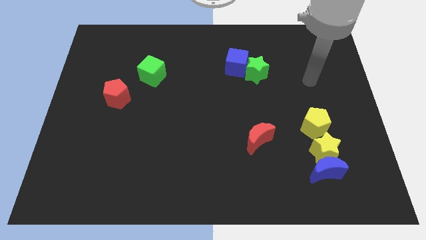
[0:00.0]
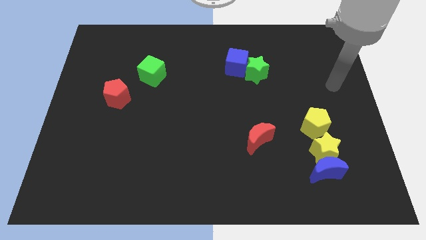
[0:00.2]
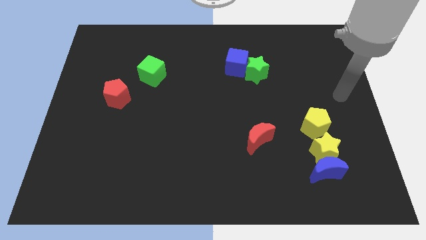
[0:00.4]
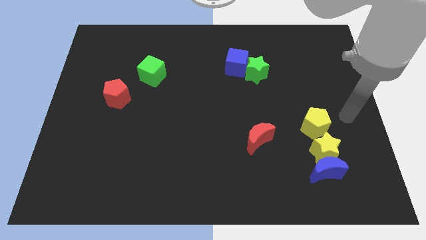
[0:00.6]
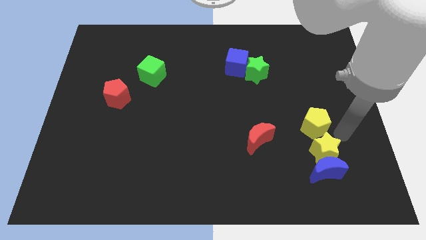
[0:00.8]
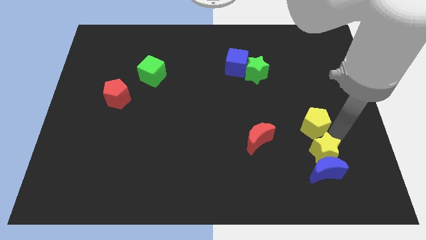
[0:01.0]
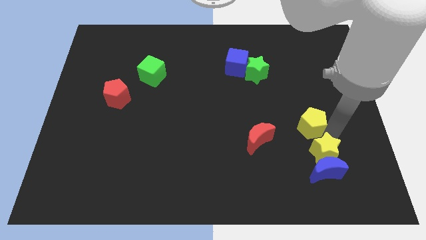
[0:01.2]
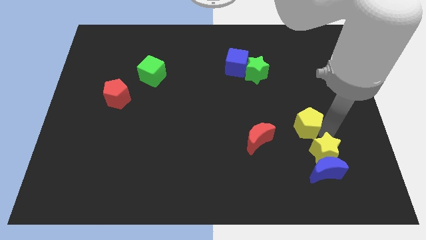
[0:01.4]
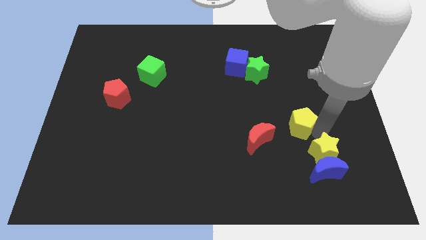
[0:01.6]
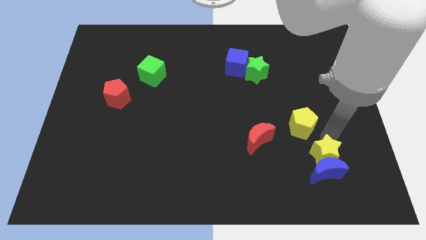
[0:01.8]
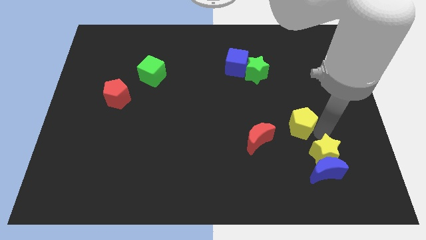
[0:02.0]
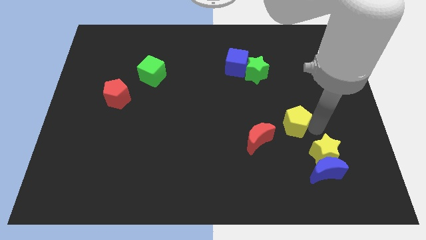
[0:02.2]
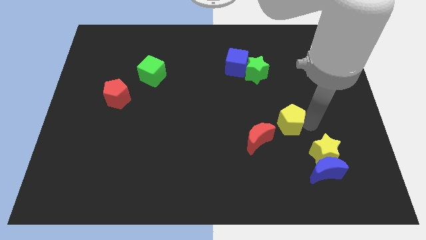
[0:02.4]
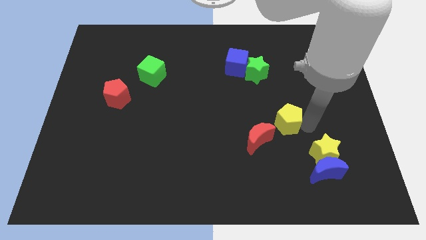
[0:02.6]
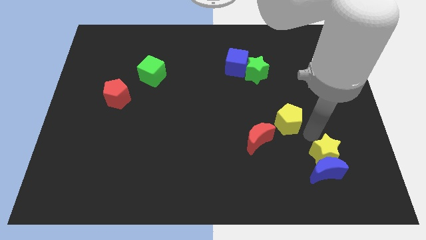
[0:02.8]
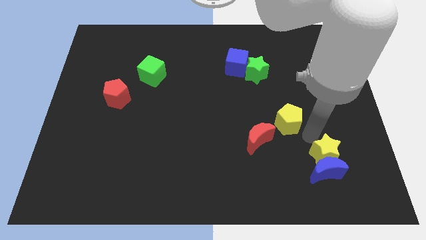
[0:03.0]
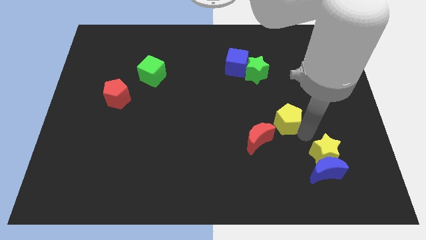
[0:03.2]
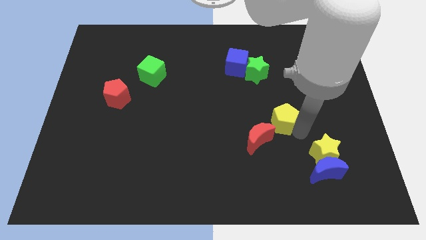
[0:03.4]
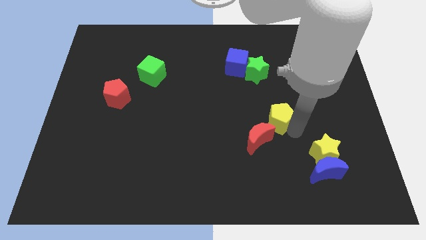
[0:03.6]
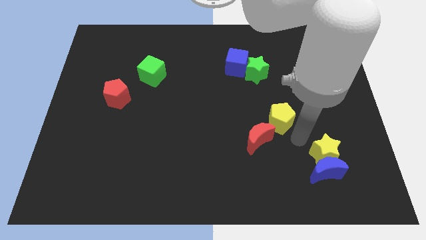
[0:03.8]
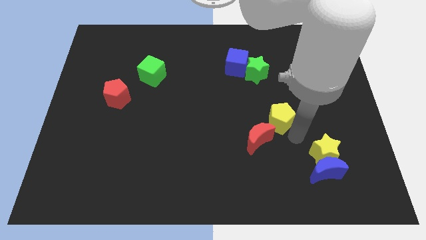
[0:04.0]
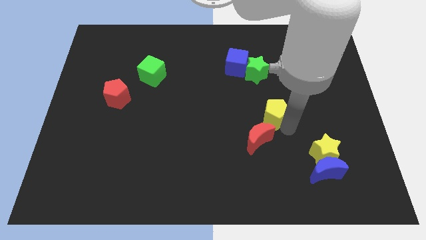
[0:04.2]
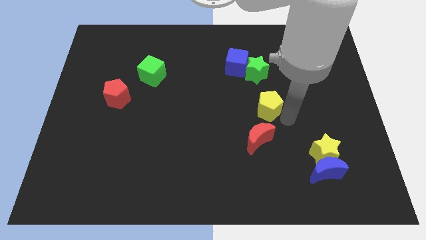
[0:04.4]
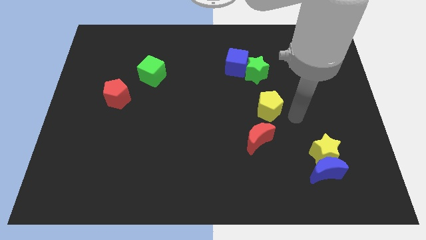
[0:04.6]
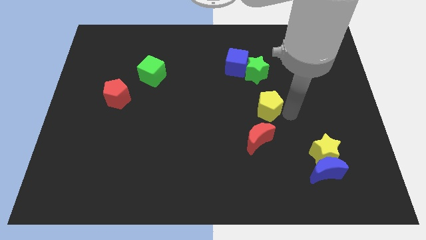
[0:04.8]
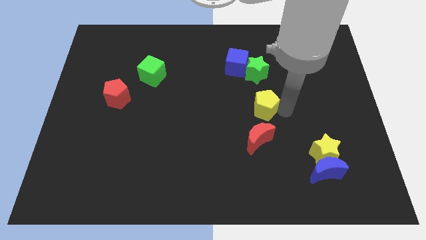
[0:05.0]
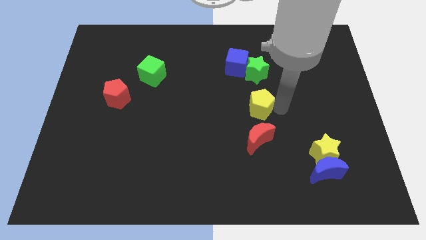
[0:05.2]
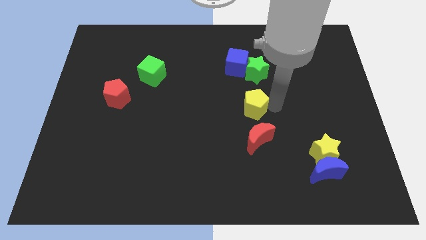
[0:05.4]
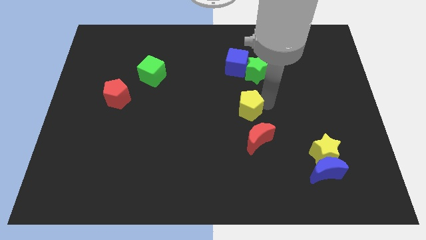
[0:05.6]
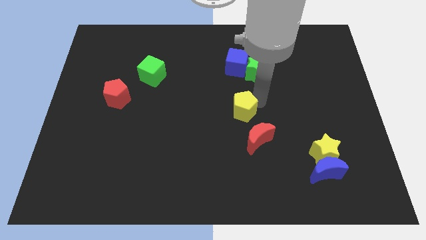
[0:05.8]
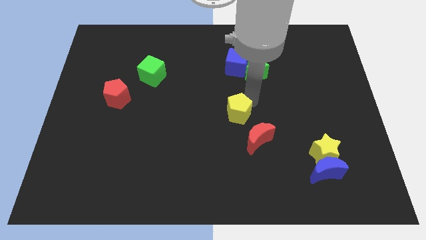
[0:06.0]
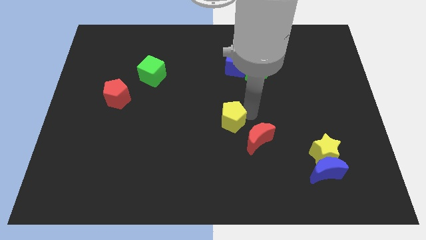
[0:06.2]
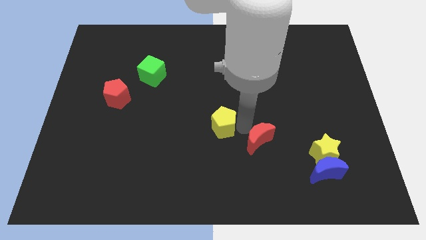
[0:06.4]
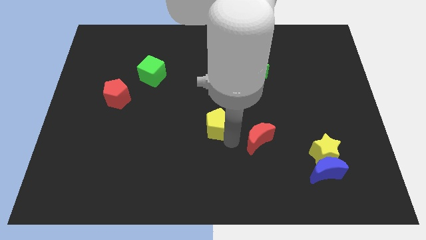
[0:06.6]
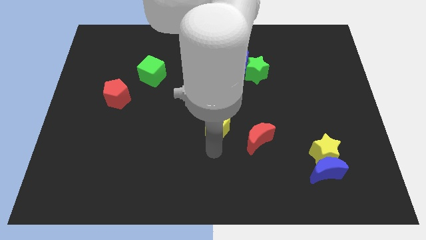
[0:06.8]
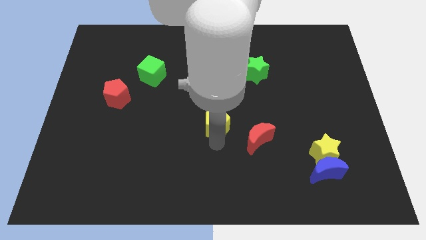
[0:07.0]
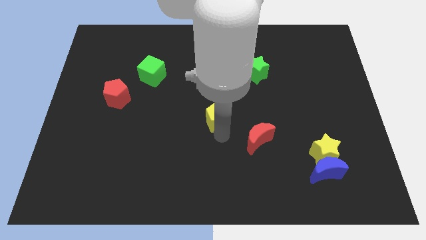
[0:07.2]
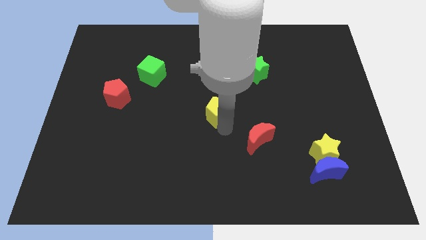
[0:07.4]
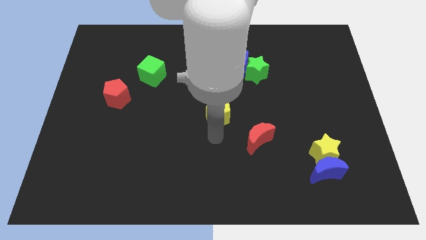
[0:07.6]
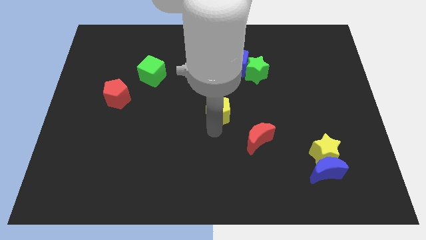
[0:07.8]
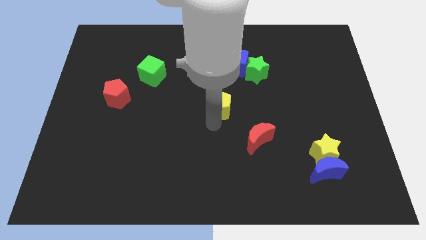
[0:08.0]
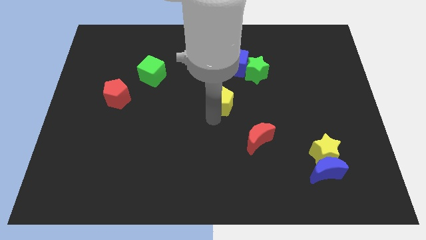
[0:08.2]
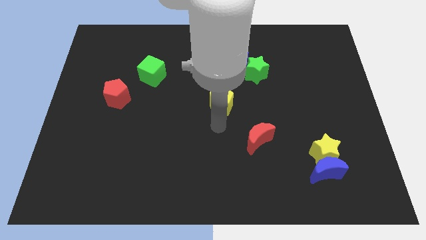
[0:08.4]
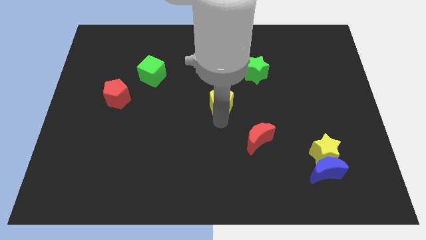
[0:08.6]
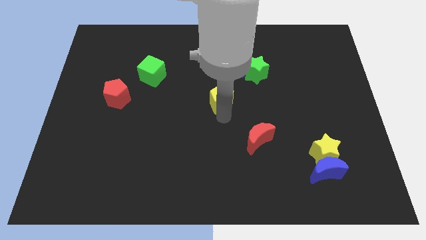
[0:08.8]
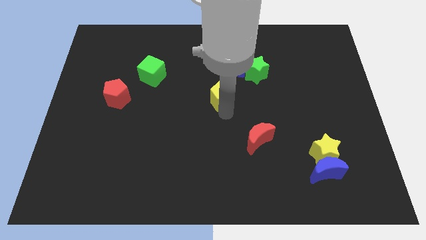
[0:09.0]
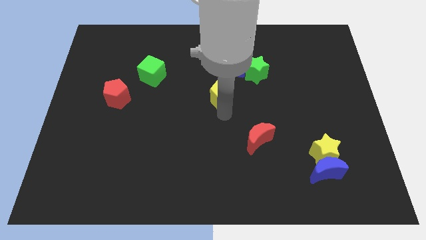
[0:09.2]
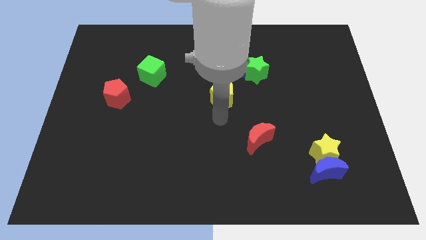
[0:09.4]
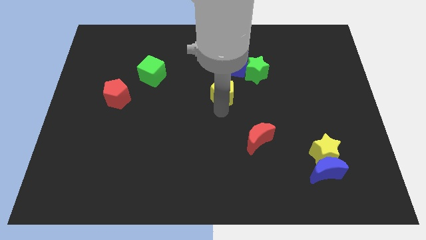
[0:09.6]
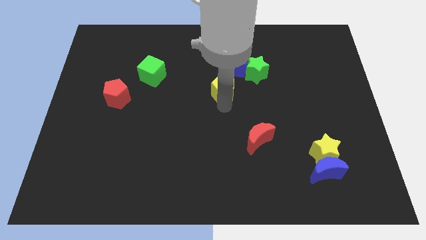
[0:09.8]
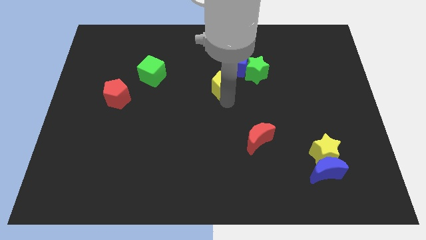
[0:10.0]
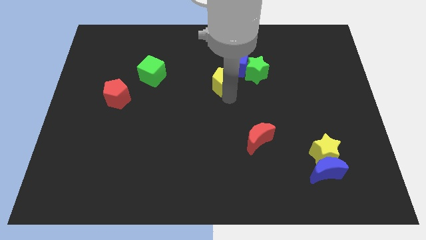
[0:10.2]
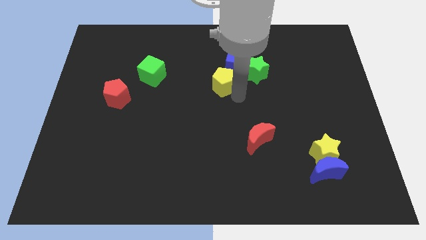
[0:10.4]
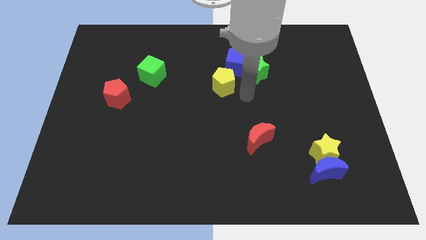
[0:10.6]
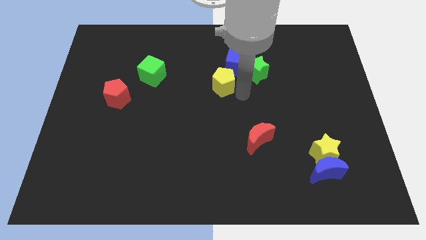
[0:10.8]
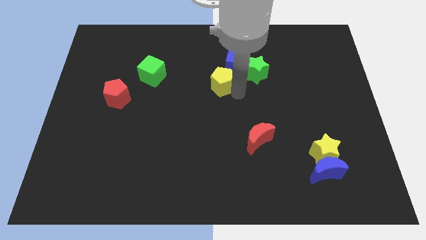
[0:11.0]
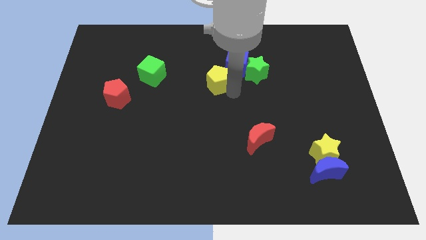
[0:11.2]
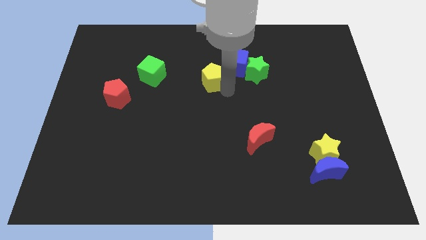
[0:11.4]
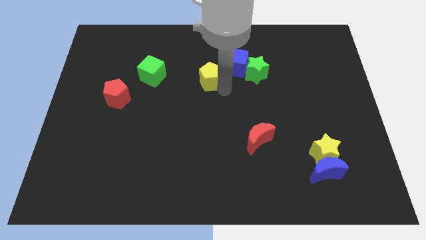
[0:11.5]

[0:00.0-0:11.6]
push the yellow pentagon left of the blue cube

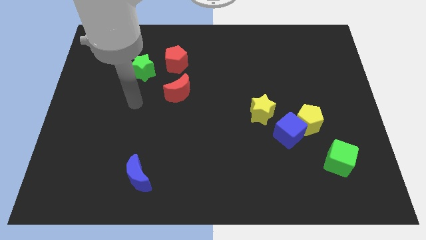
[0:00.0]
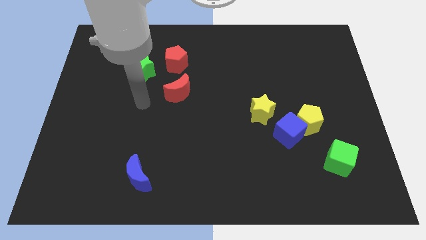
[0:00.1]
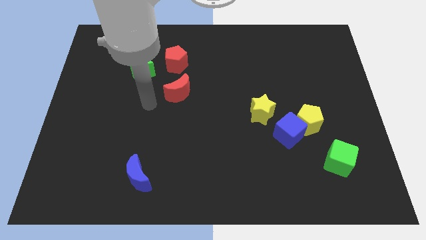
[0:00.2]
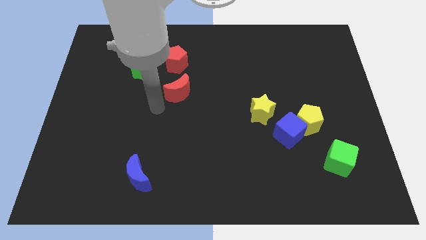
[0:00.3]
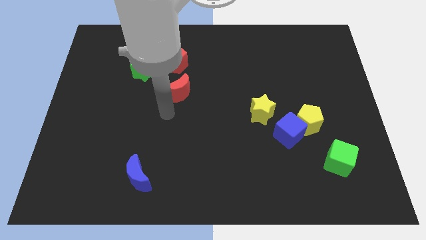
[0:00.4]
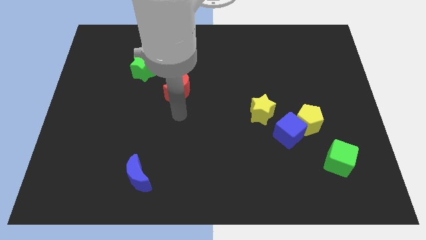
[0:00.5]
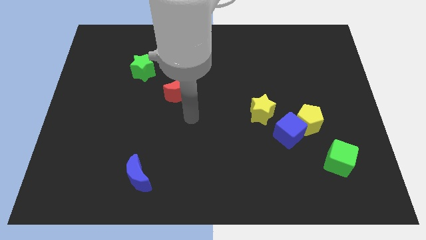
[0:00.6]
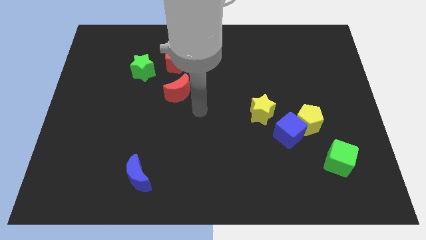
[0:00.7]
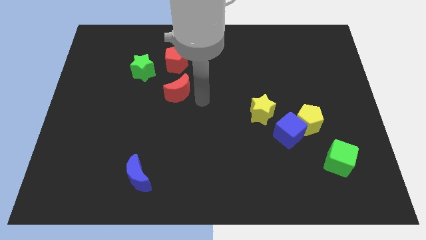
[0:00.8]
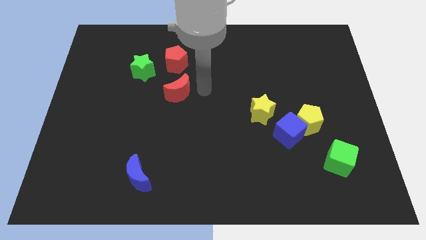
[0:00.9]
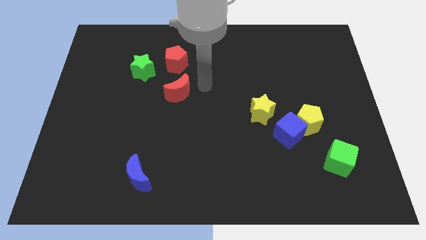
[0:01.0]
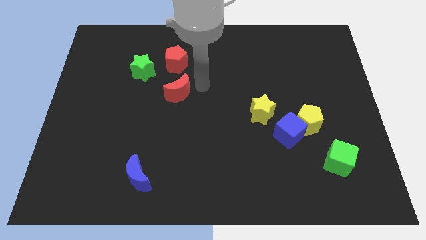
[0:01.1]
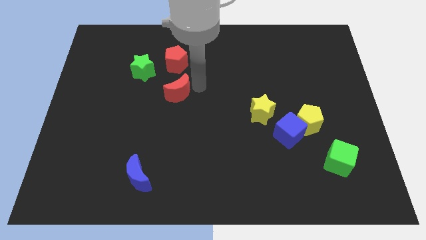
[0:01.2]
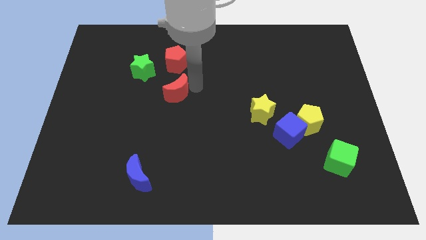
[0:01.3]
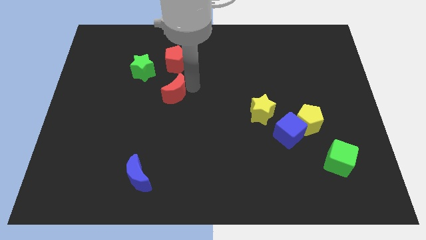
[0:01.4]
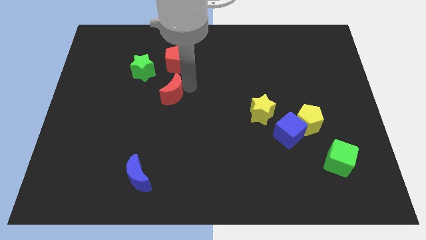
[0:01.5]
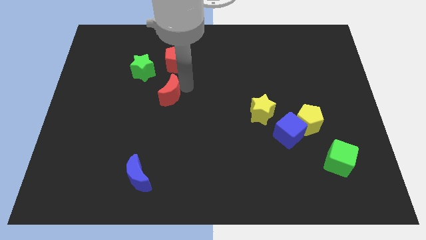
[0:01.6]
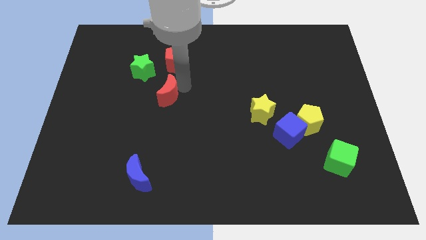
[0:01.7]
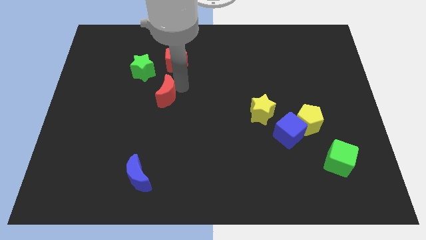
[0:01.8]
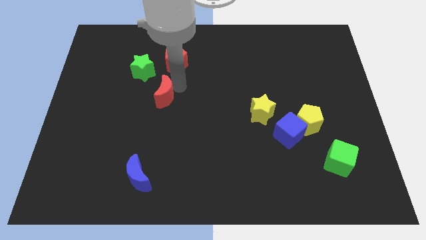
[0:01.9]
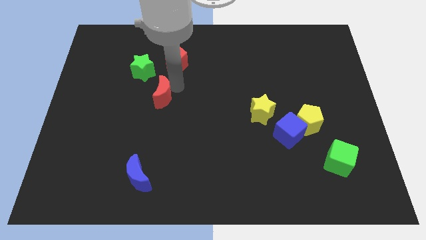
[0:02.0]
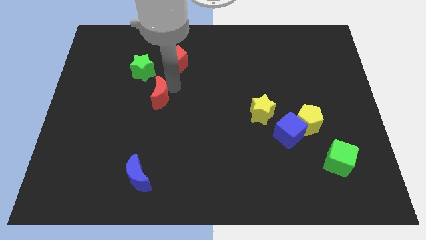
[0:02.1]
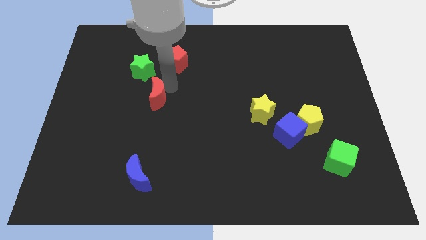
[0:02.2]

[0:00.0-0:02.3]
slide the red moon to the bottom side of the green star
